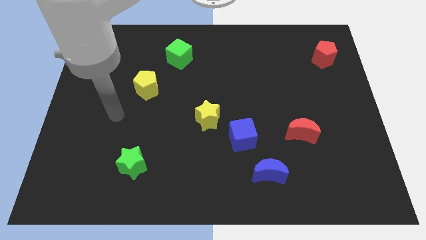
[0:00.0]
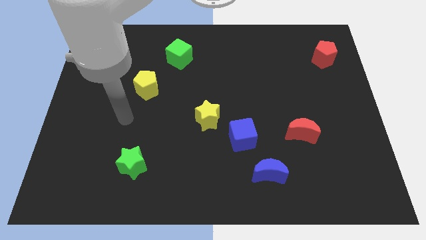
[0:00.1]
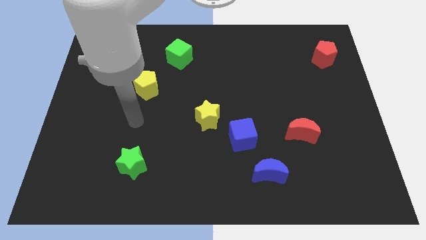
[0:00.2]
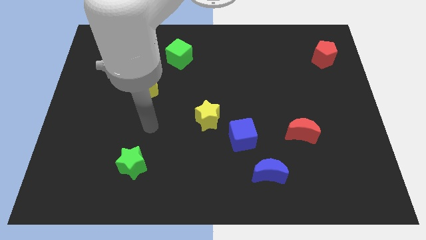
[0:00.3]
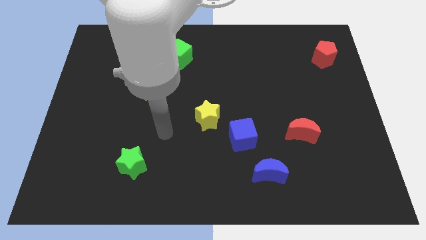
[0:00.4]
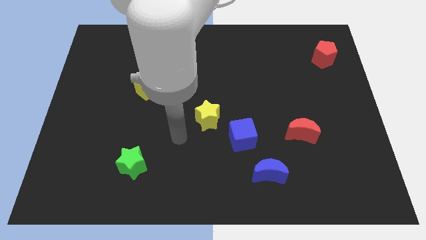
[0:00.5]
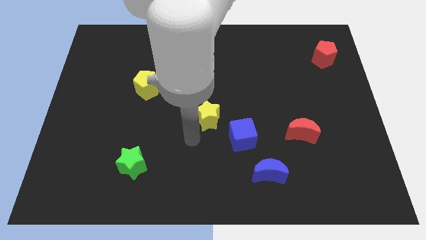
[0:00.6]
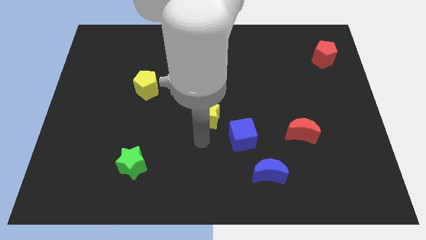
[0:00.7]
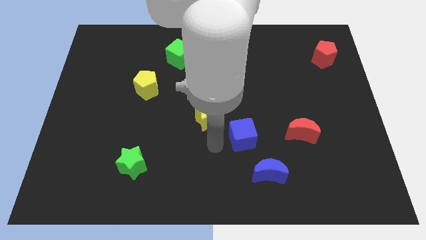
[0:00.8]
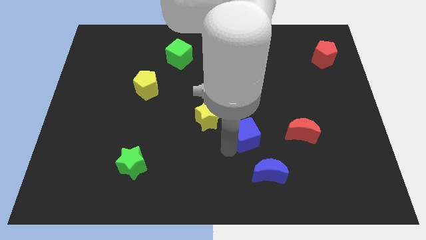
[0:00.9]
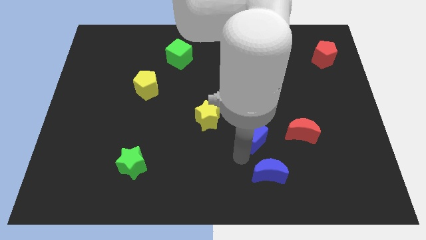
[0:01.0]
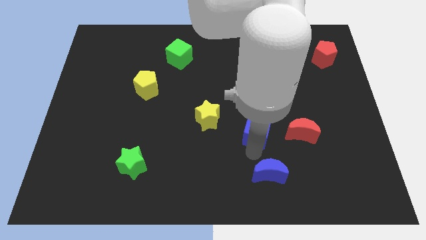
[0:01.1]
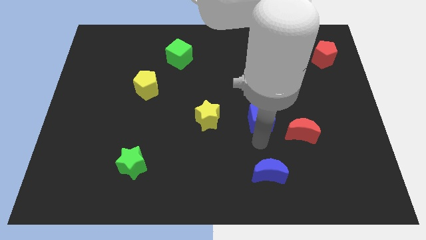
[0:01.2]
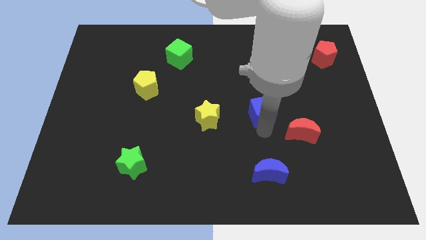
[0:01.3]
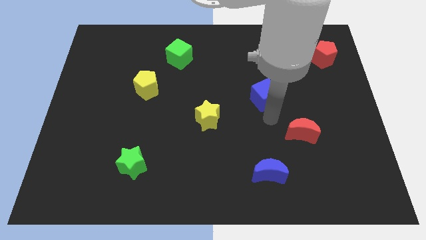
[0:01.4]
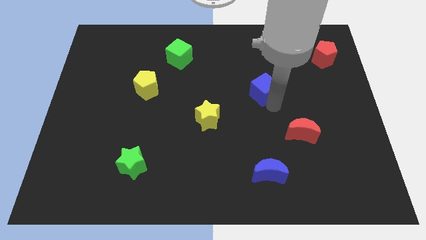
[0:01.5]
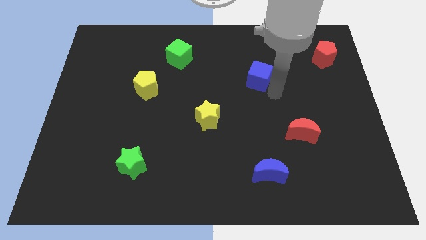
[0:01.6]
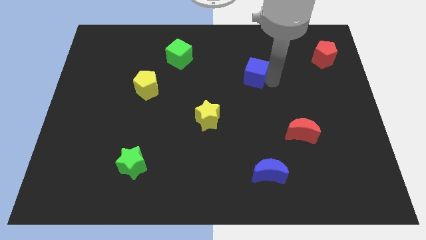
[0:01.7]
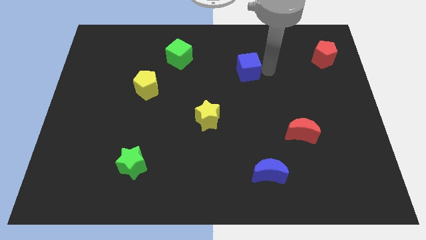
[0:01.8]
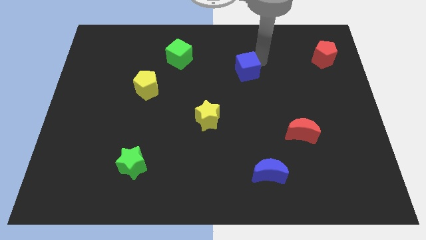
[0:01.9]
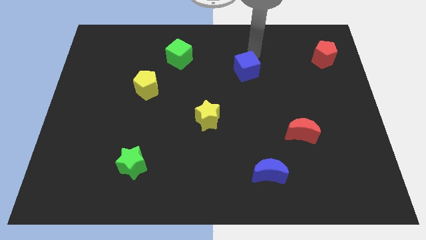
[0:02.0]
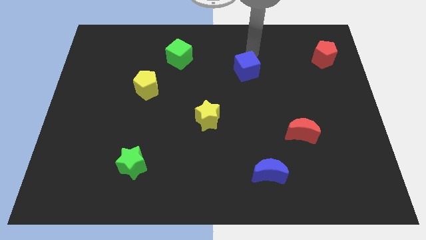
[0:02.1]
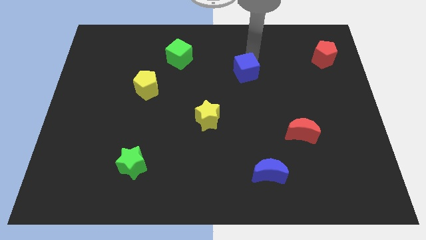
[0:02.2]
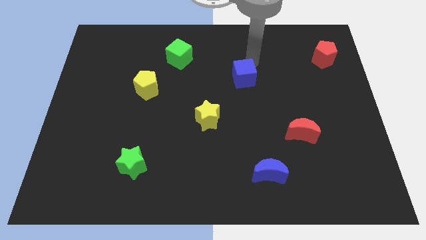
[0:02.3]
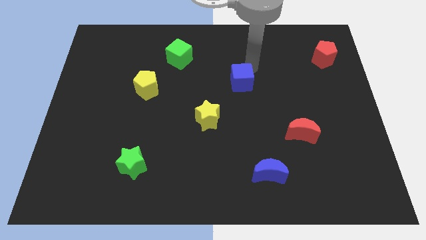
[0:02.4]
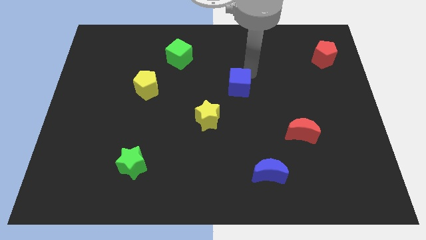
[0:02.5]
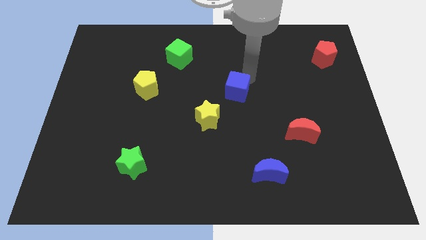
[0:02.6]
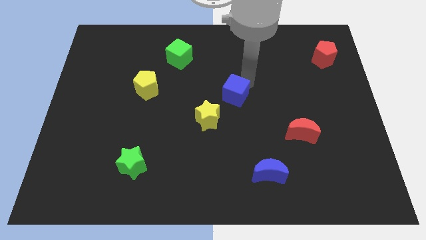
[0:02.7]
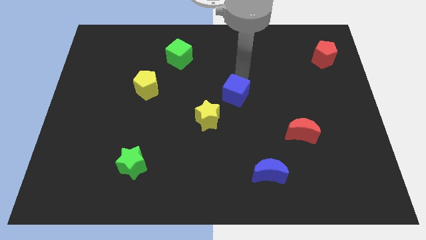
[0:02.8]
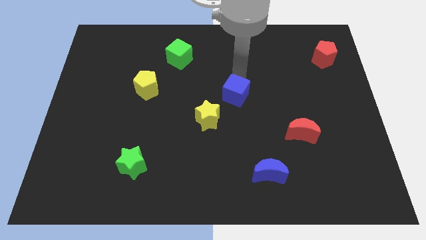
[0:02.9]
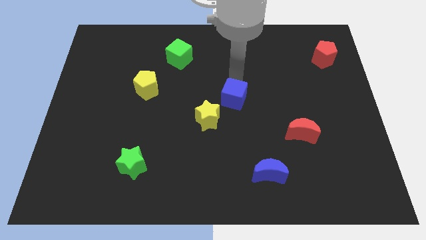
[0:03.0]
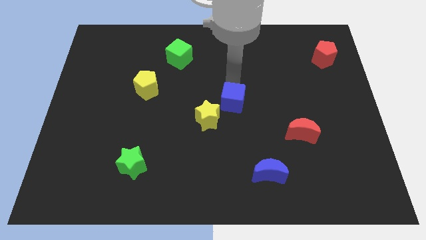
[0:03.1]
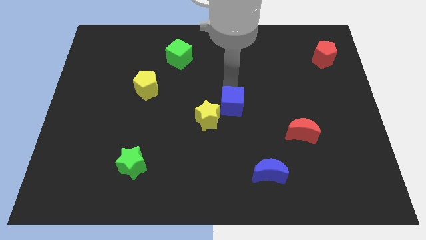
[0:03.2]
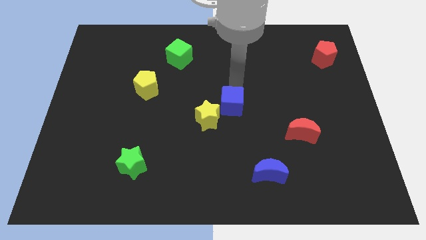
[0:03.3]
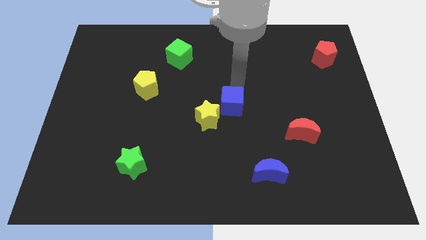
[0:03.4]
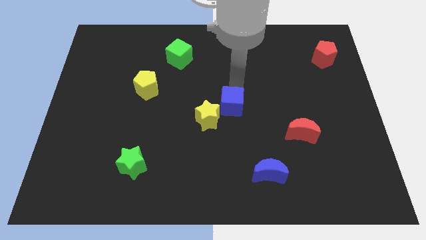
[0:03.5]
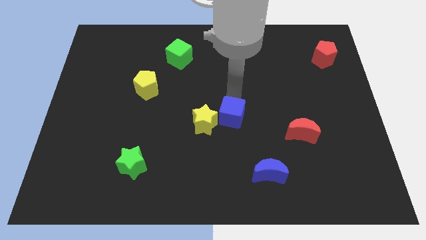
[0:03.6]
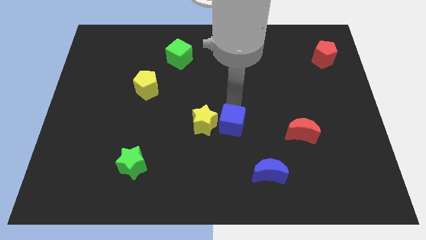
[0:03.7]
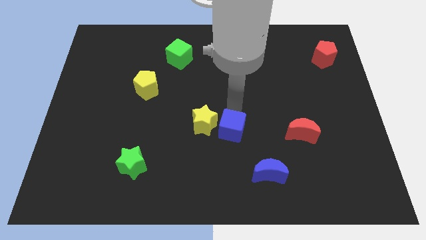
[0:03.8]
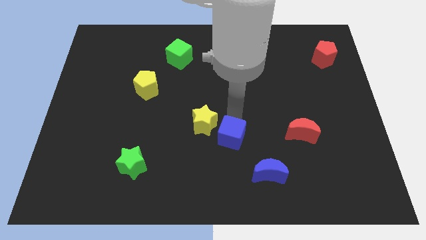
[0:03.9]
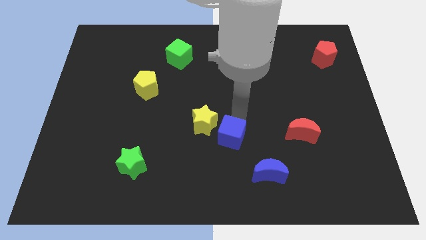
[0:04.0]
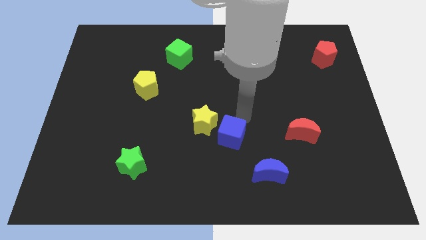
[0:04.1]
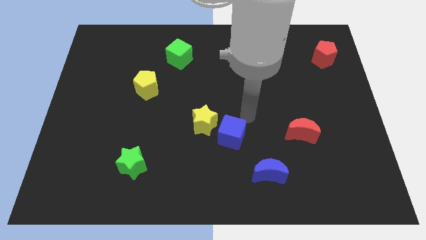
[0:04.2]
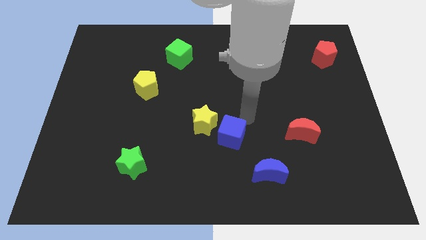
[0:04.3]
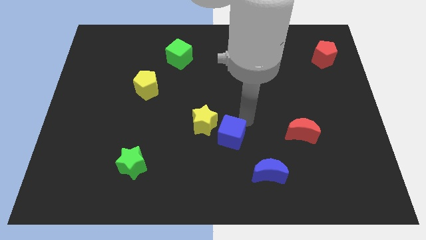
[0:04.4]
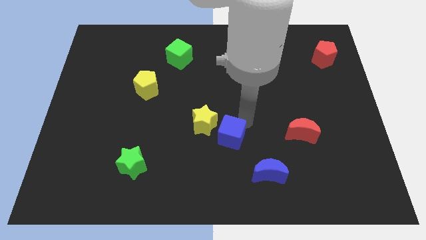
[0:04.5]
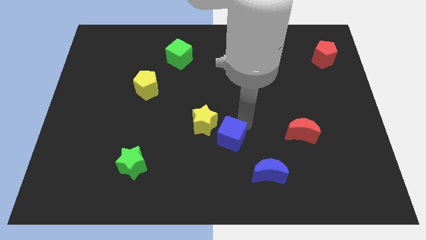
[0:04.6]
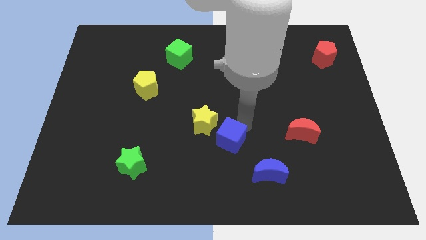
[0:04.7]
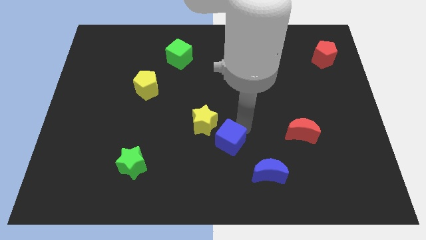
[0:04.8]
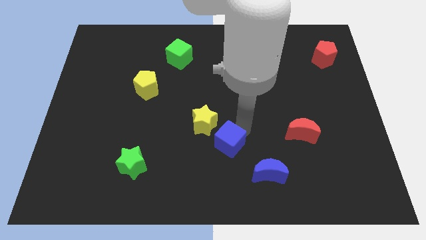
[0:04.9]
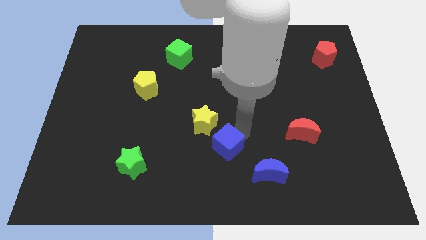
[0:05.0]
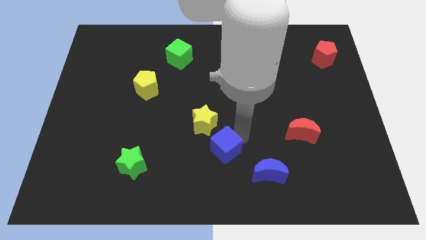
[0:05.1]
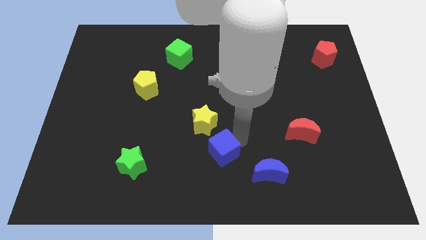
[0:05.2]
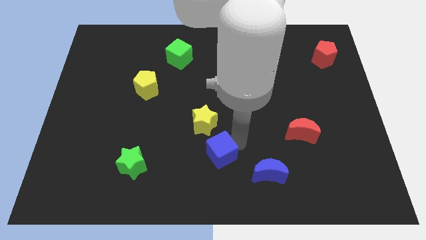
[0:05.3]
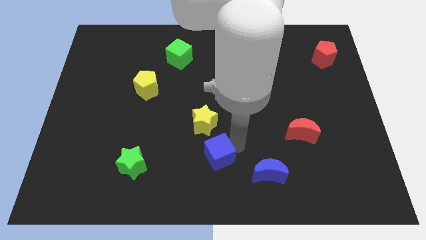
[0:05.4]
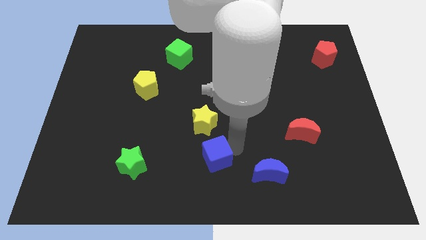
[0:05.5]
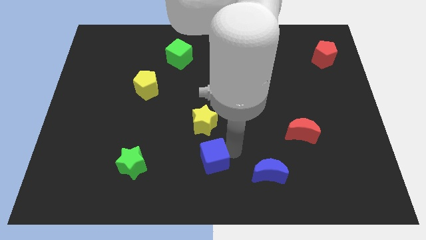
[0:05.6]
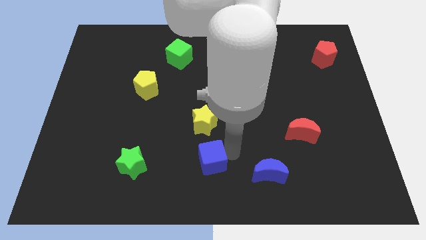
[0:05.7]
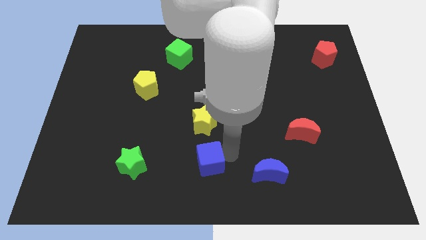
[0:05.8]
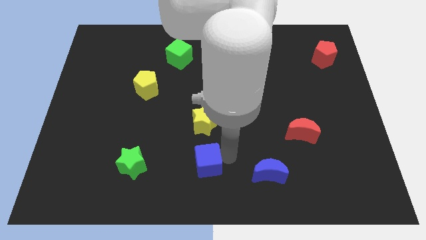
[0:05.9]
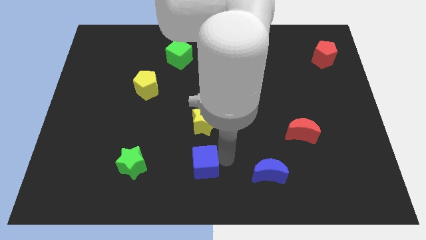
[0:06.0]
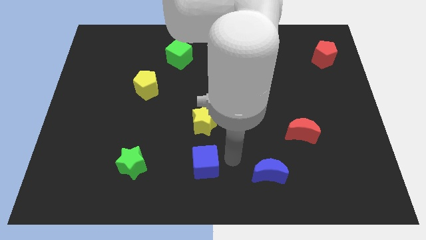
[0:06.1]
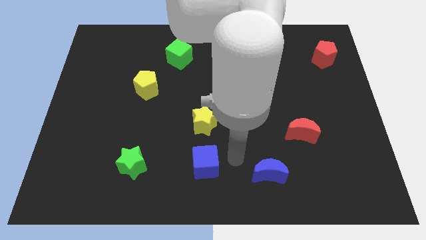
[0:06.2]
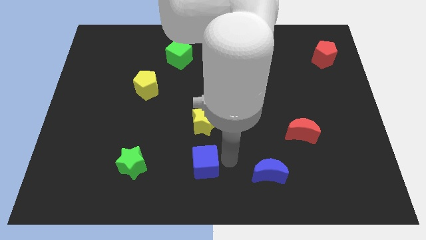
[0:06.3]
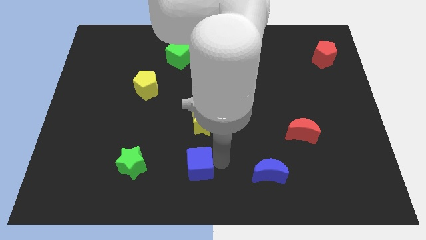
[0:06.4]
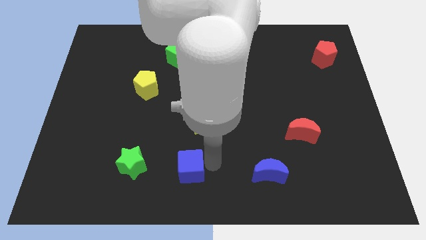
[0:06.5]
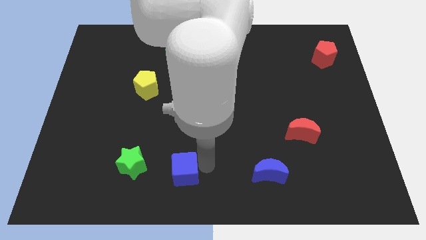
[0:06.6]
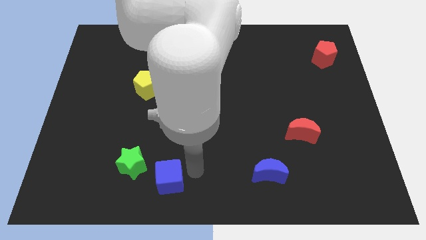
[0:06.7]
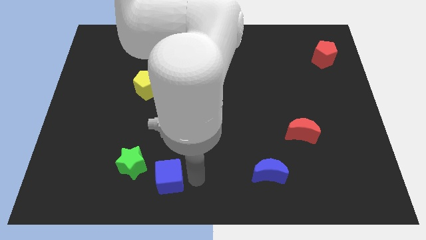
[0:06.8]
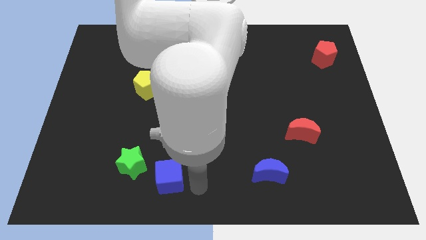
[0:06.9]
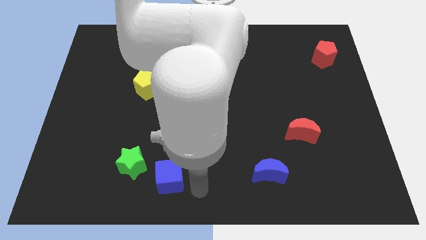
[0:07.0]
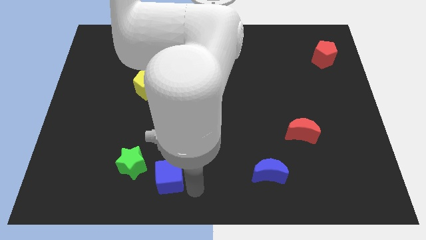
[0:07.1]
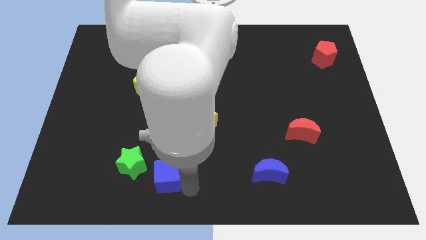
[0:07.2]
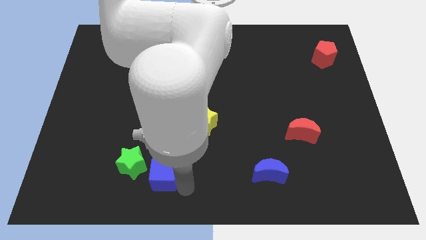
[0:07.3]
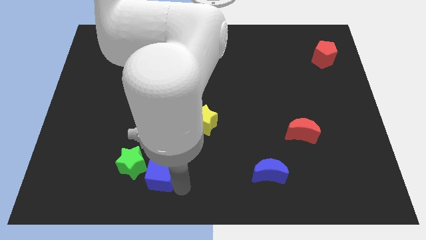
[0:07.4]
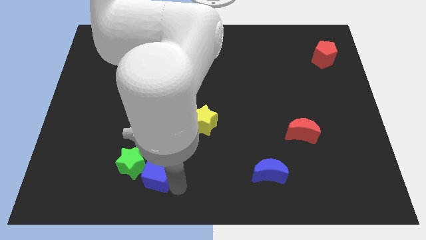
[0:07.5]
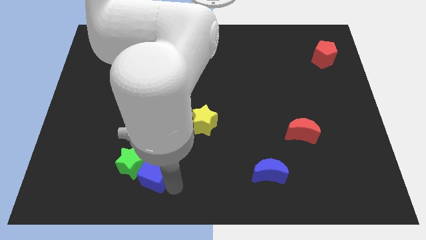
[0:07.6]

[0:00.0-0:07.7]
slide the blue cube to the green star
